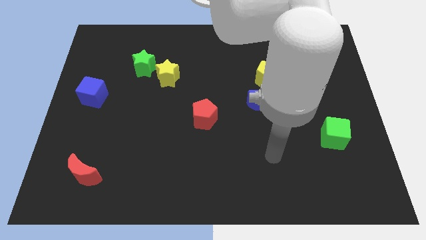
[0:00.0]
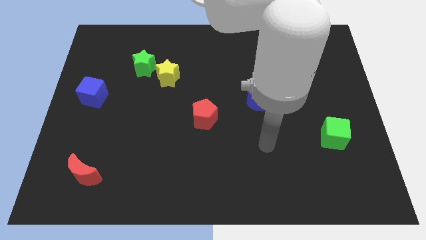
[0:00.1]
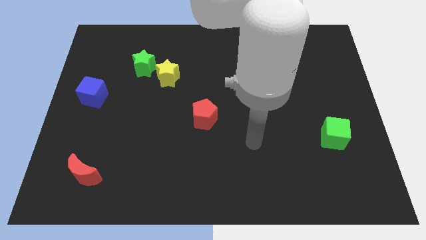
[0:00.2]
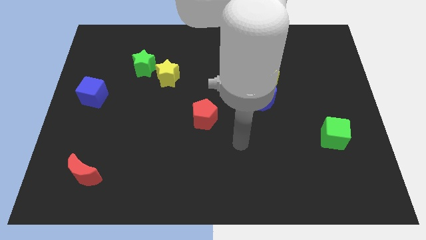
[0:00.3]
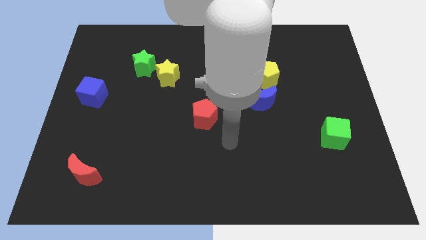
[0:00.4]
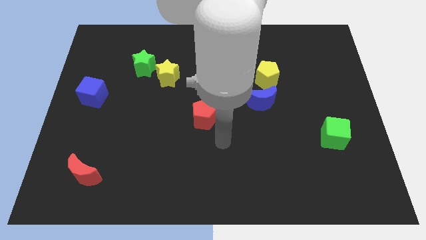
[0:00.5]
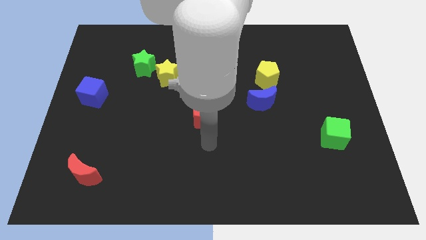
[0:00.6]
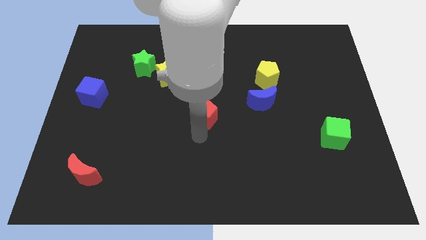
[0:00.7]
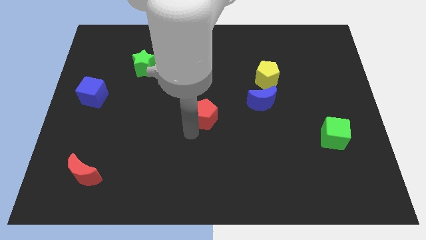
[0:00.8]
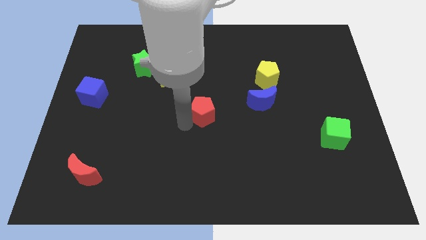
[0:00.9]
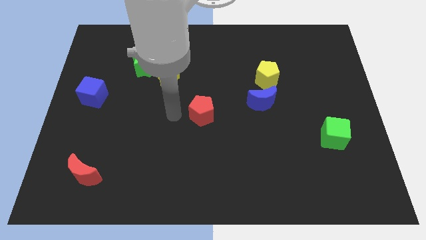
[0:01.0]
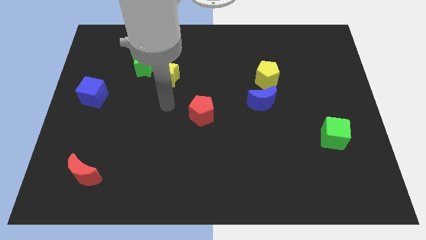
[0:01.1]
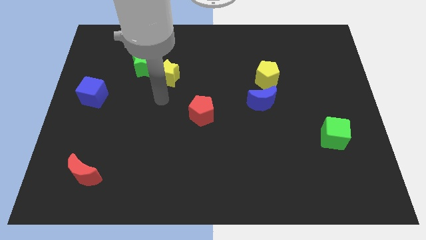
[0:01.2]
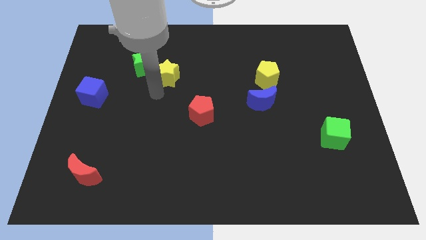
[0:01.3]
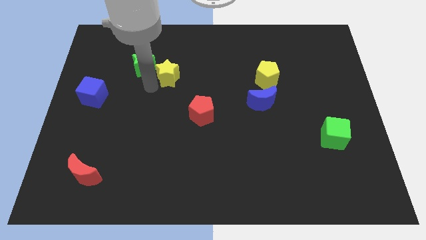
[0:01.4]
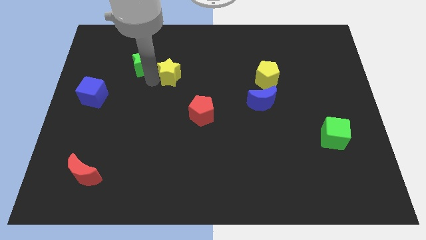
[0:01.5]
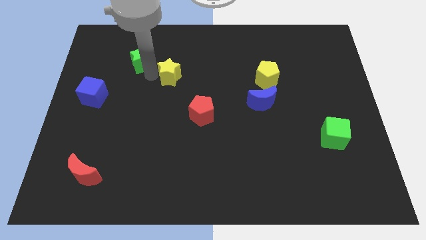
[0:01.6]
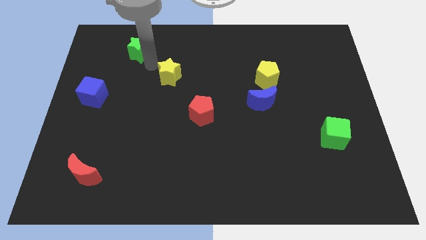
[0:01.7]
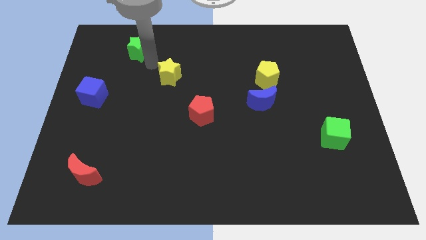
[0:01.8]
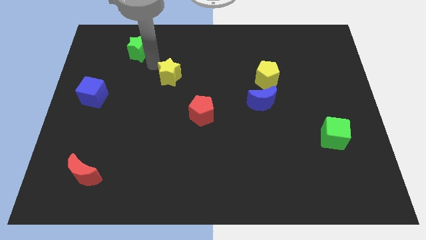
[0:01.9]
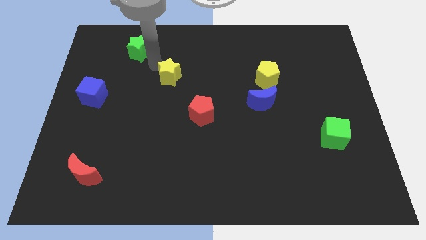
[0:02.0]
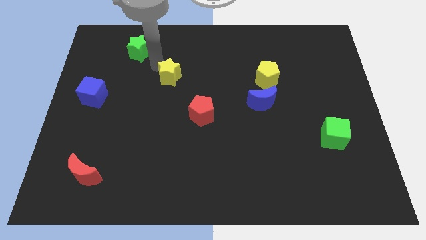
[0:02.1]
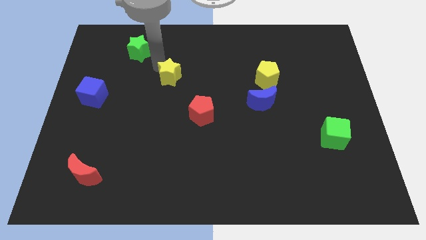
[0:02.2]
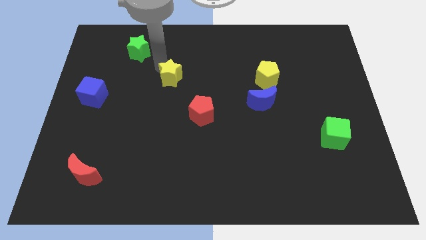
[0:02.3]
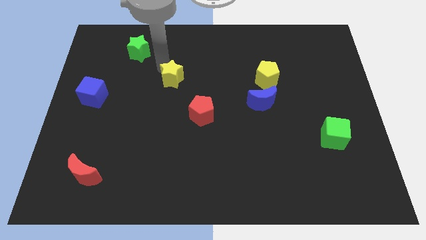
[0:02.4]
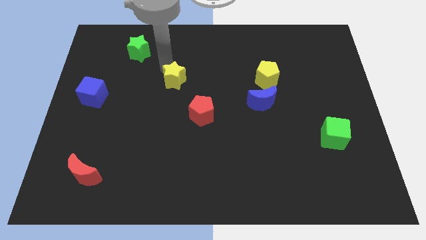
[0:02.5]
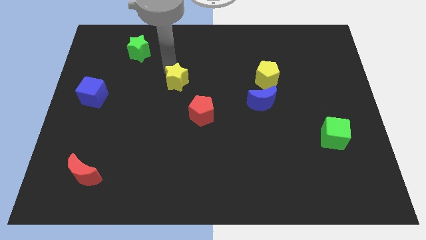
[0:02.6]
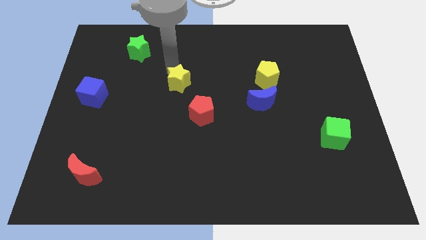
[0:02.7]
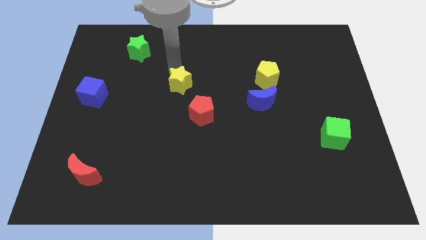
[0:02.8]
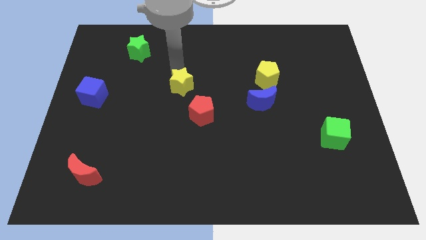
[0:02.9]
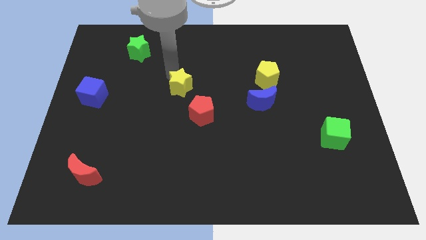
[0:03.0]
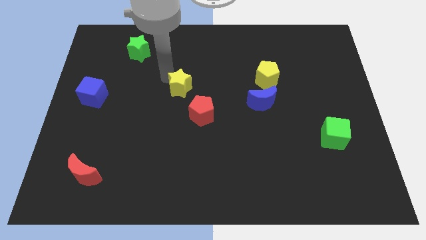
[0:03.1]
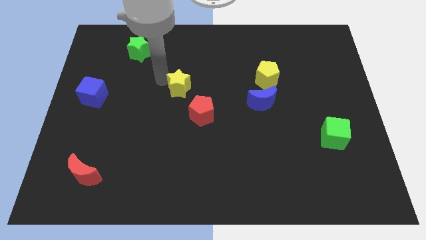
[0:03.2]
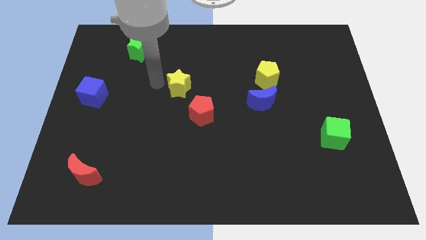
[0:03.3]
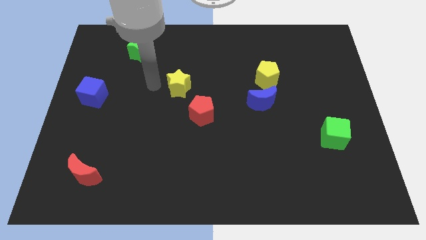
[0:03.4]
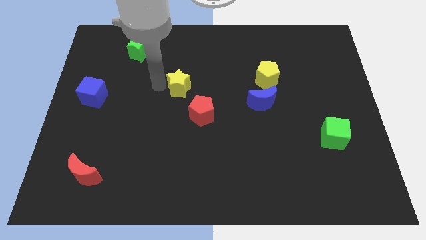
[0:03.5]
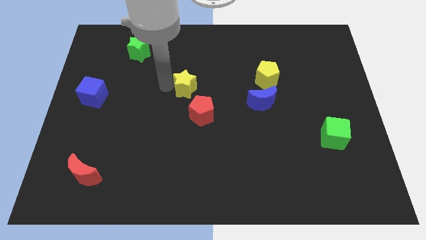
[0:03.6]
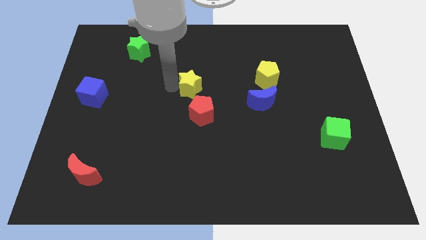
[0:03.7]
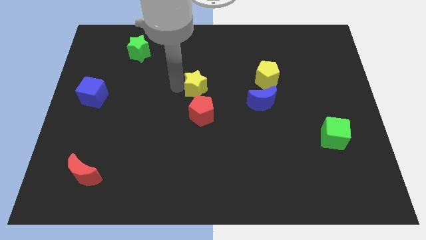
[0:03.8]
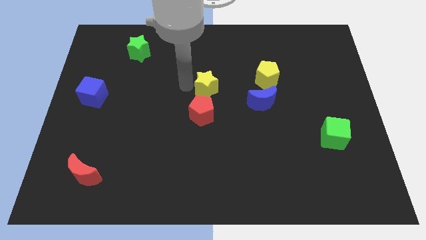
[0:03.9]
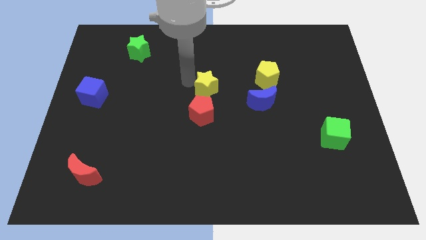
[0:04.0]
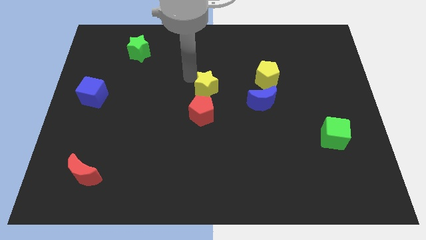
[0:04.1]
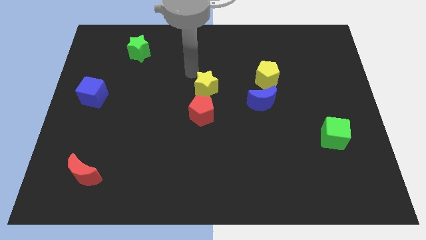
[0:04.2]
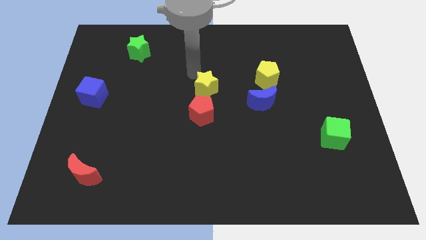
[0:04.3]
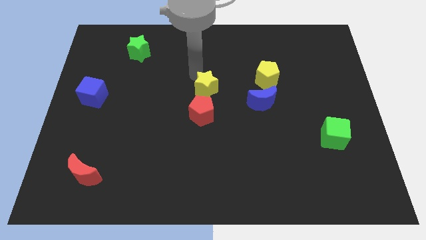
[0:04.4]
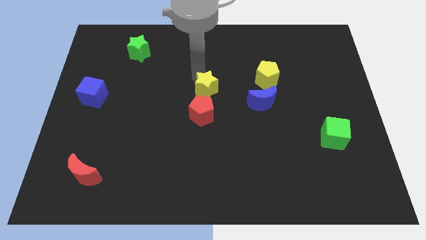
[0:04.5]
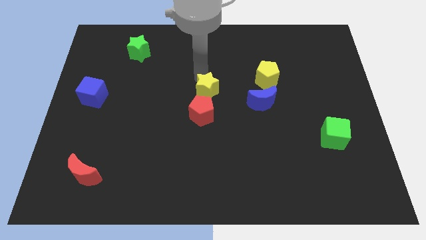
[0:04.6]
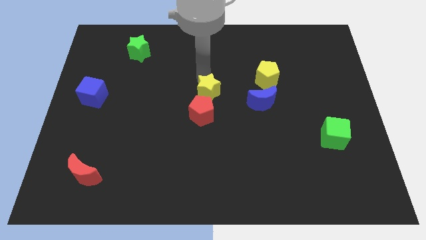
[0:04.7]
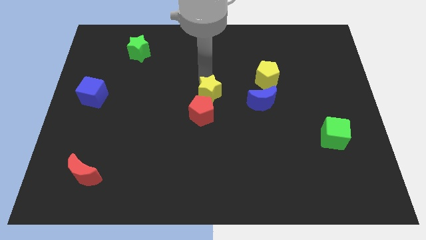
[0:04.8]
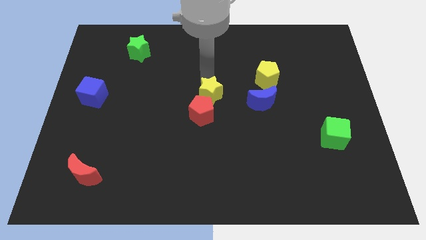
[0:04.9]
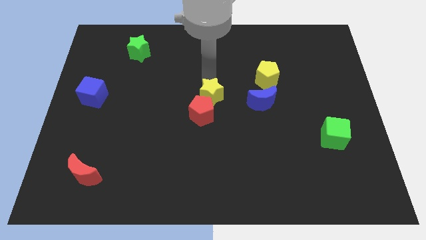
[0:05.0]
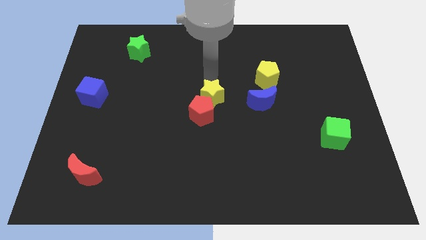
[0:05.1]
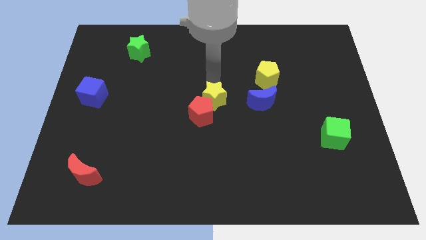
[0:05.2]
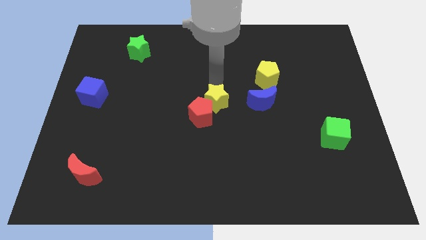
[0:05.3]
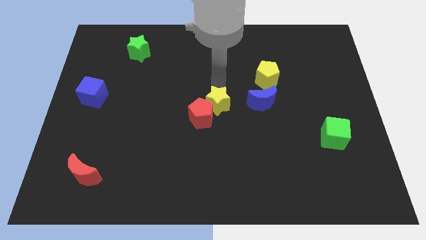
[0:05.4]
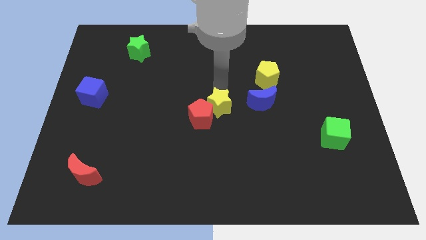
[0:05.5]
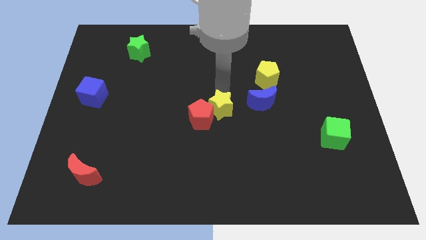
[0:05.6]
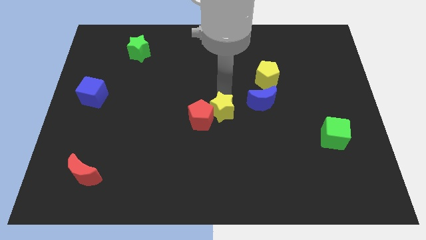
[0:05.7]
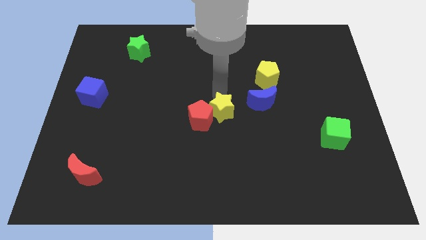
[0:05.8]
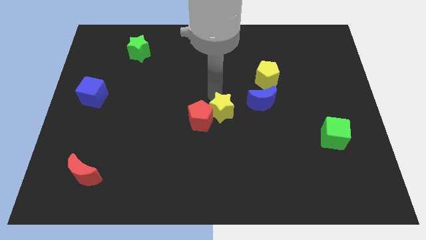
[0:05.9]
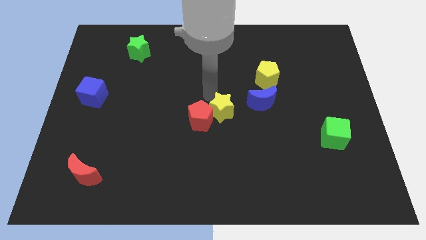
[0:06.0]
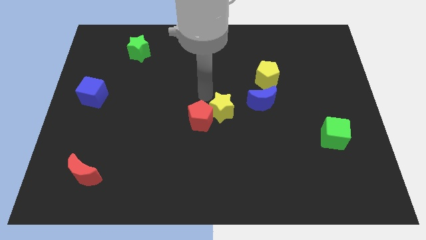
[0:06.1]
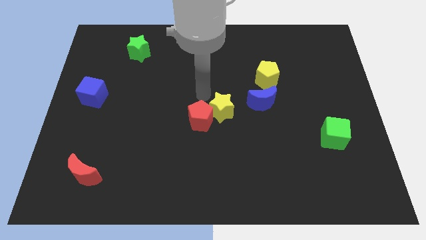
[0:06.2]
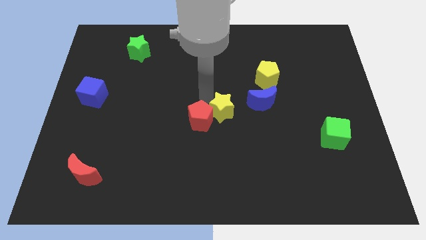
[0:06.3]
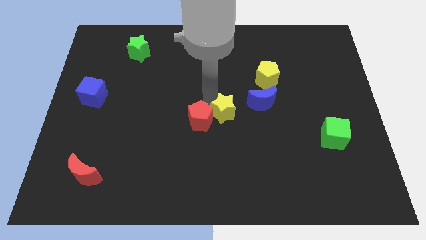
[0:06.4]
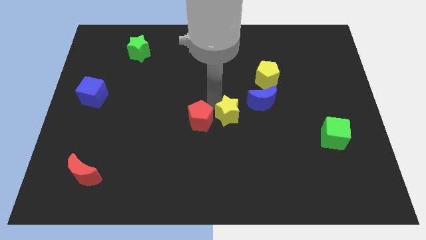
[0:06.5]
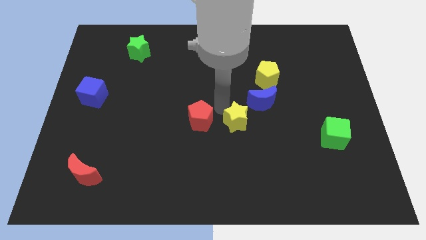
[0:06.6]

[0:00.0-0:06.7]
move the yellow star diagonally down and right

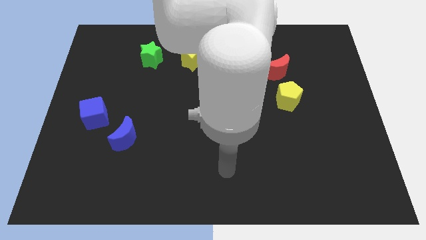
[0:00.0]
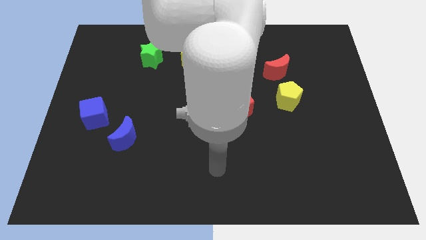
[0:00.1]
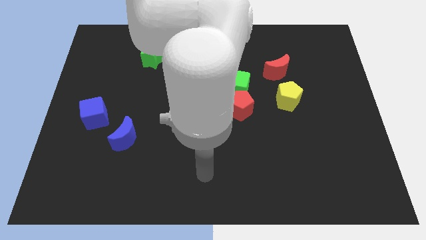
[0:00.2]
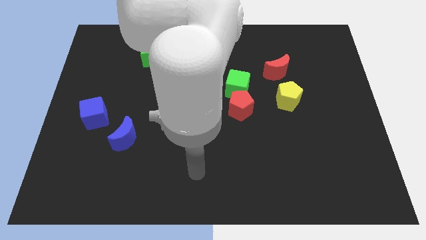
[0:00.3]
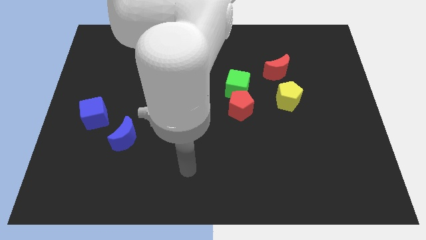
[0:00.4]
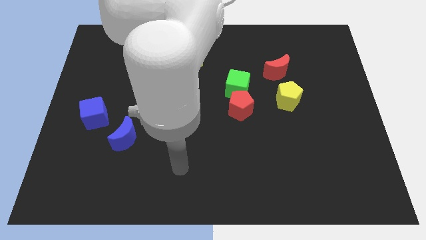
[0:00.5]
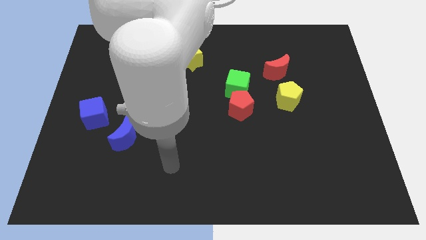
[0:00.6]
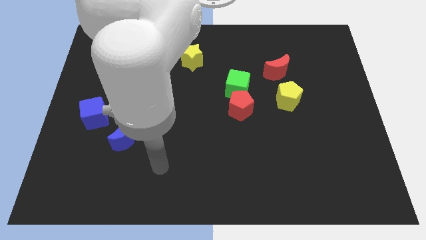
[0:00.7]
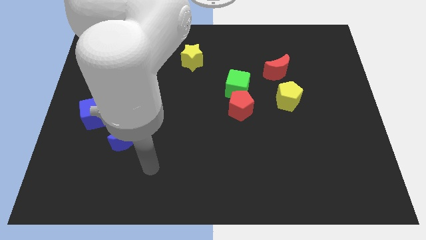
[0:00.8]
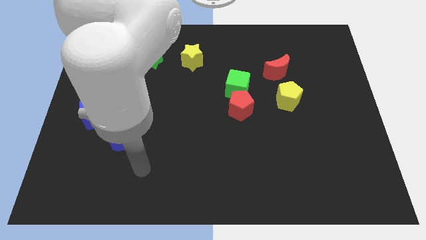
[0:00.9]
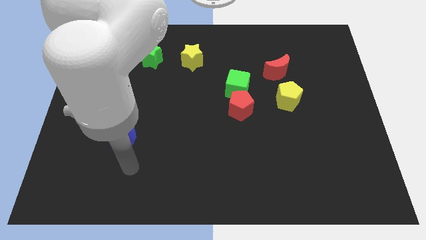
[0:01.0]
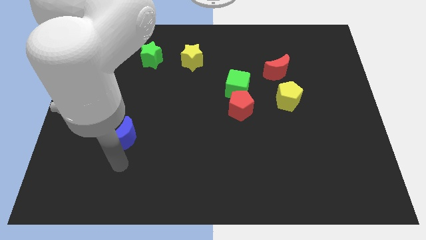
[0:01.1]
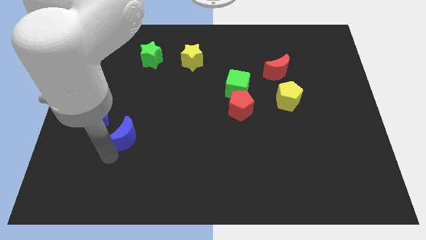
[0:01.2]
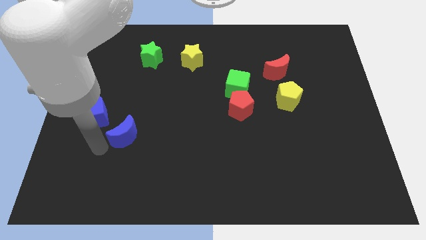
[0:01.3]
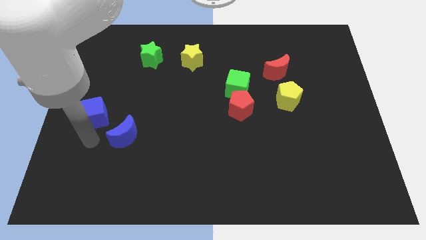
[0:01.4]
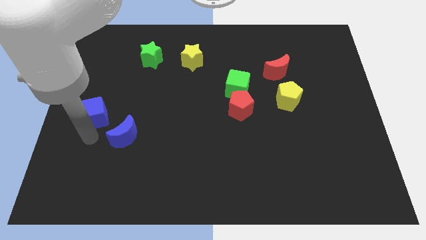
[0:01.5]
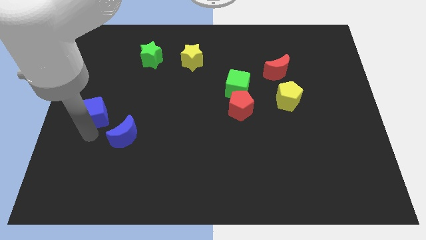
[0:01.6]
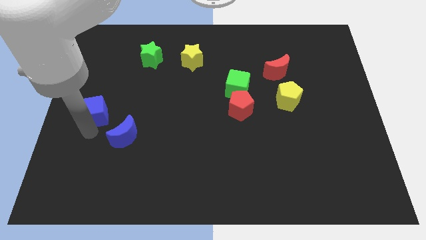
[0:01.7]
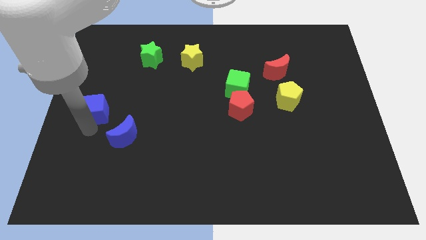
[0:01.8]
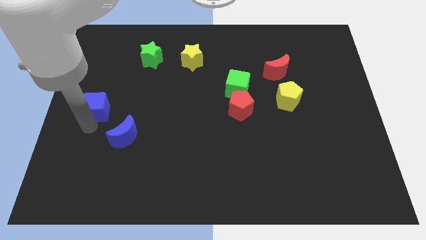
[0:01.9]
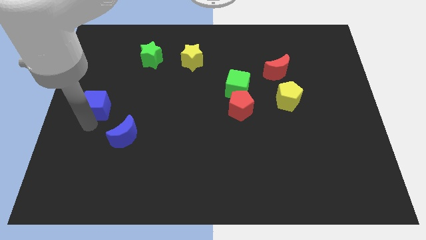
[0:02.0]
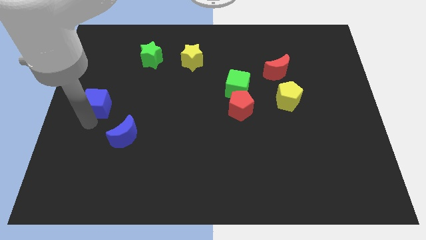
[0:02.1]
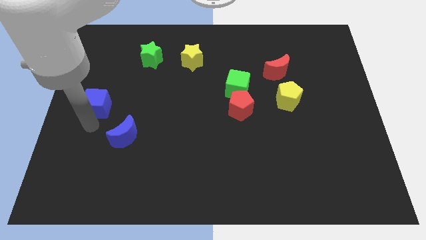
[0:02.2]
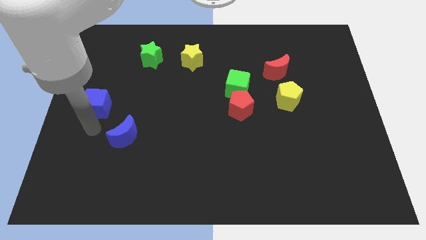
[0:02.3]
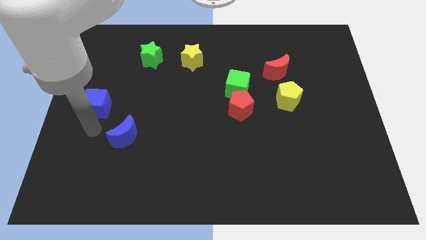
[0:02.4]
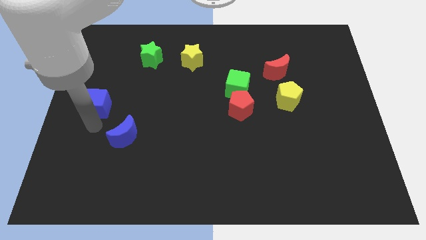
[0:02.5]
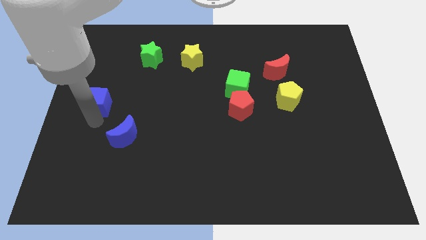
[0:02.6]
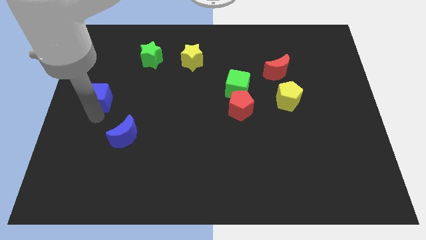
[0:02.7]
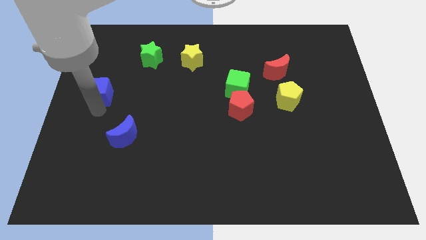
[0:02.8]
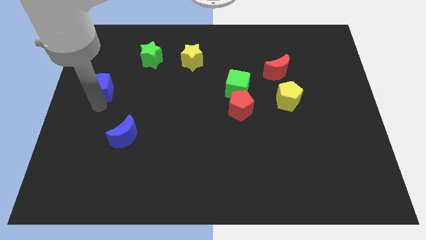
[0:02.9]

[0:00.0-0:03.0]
slightly push the blue cube upwards
